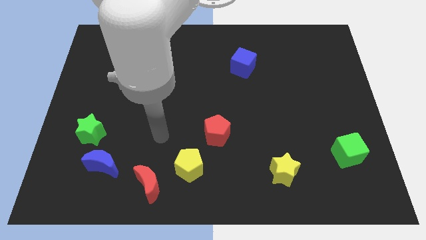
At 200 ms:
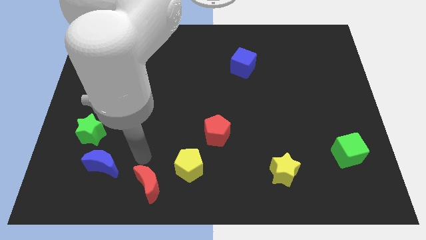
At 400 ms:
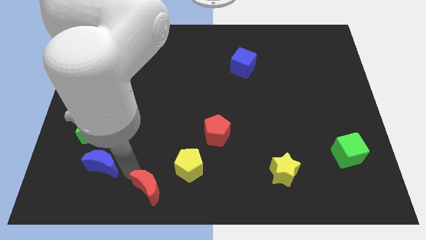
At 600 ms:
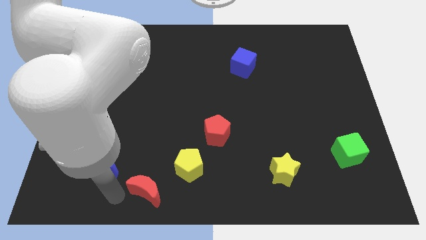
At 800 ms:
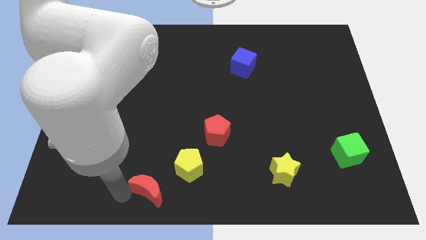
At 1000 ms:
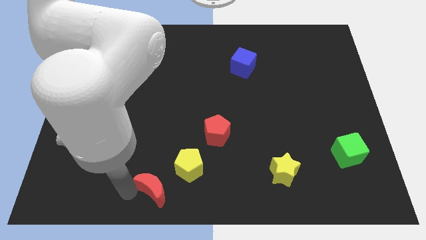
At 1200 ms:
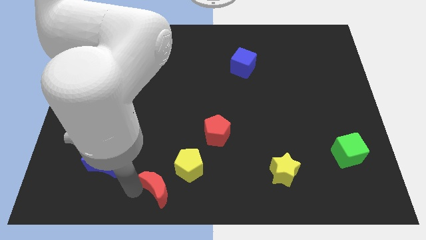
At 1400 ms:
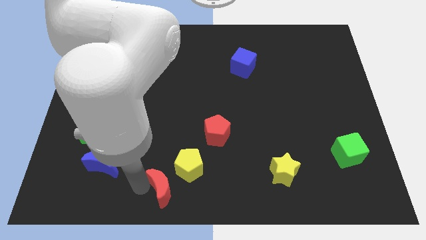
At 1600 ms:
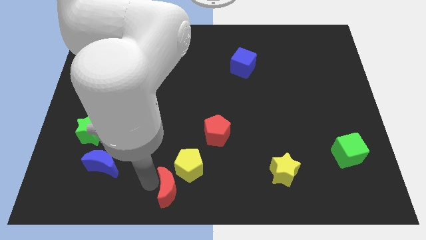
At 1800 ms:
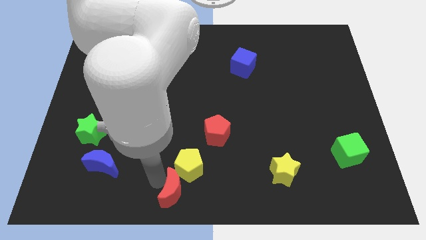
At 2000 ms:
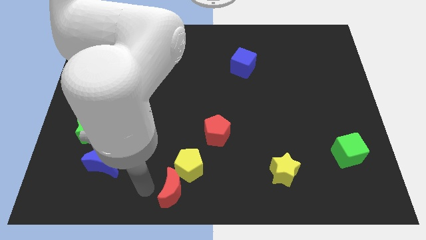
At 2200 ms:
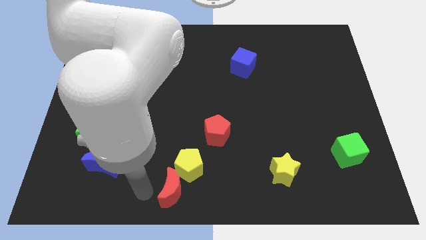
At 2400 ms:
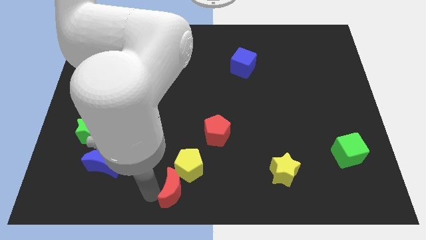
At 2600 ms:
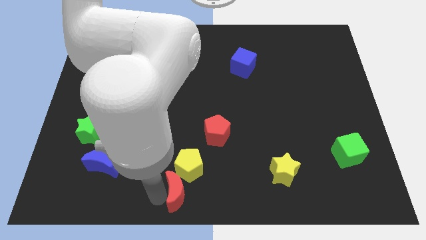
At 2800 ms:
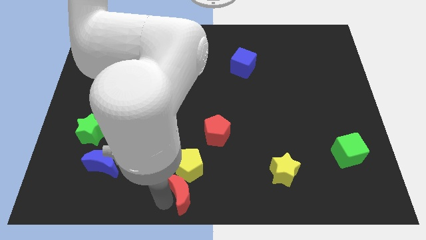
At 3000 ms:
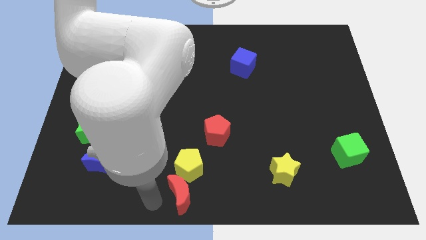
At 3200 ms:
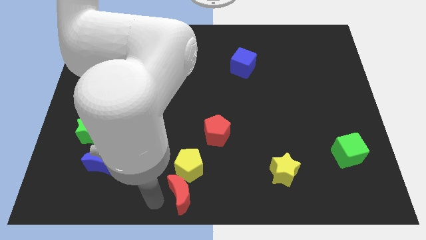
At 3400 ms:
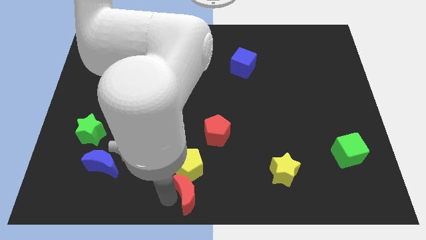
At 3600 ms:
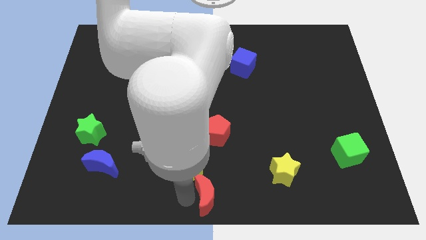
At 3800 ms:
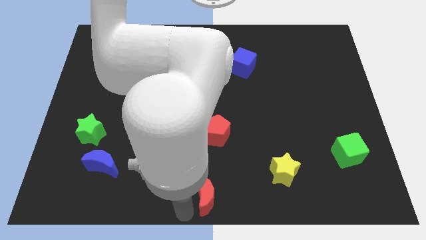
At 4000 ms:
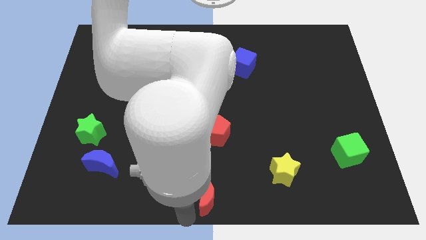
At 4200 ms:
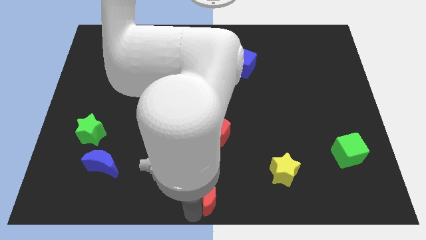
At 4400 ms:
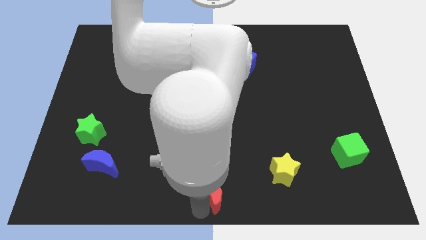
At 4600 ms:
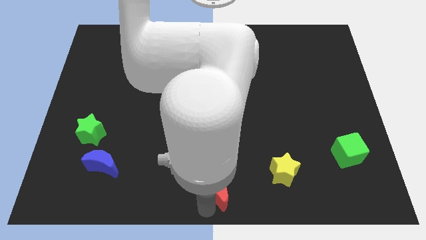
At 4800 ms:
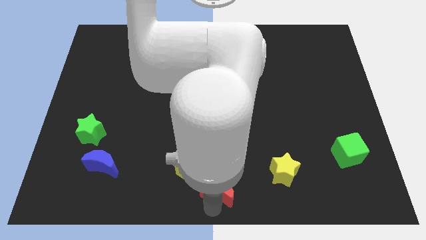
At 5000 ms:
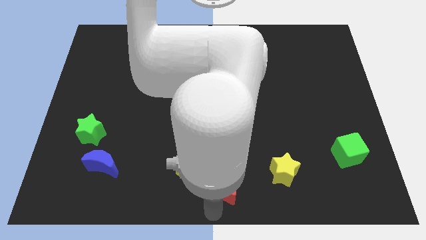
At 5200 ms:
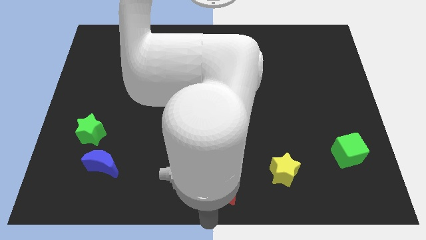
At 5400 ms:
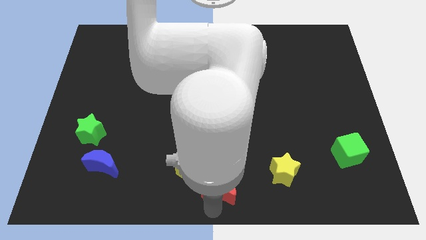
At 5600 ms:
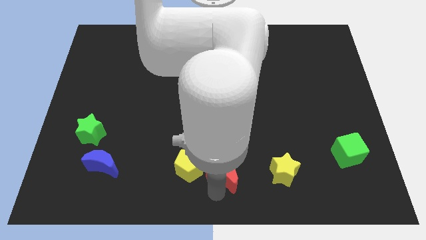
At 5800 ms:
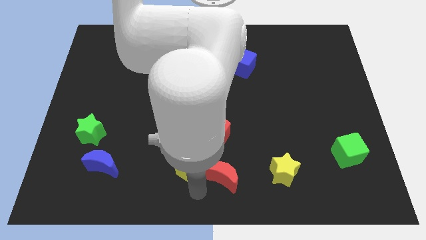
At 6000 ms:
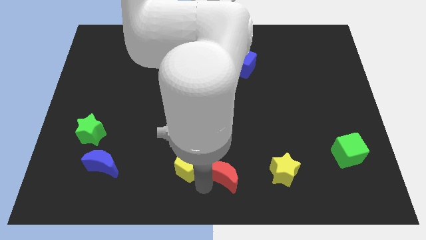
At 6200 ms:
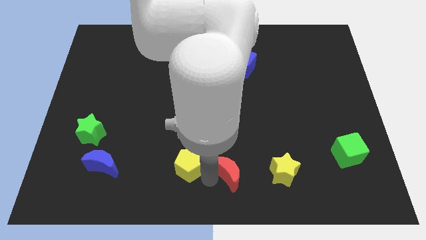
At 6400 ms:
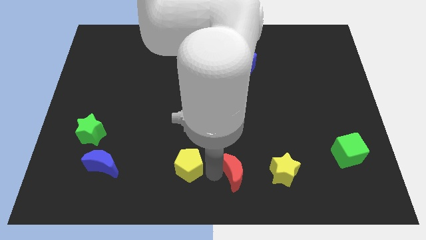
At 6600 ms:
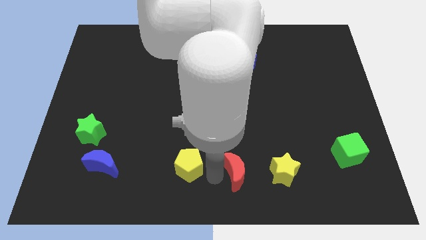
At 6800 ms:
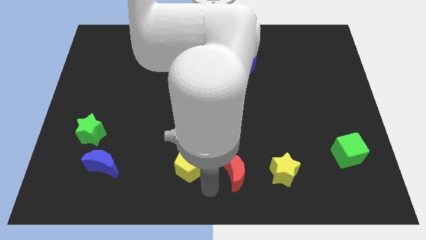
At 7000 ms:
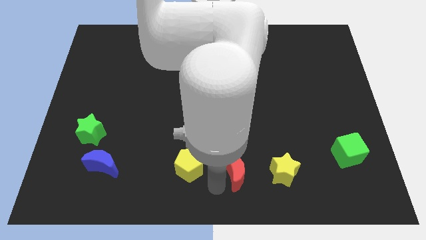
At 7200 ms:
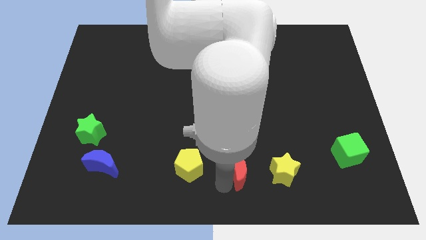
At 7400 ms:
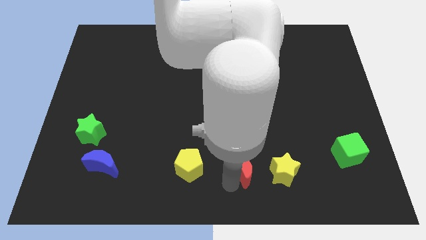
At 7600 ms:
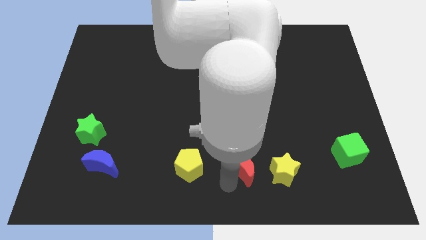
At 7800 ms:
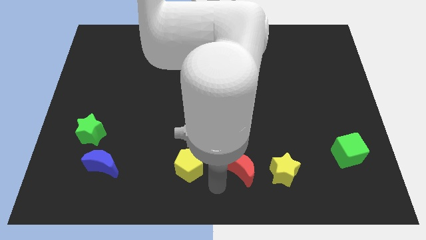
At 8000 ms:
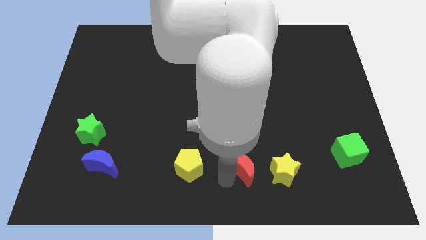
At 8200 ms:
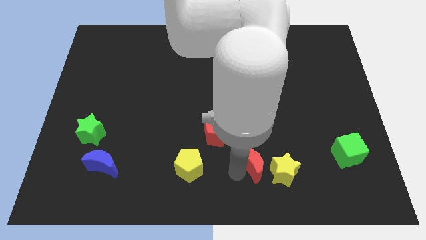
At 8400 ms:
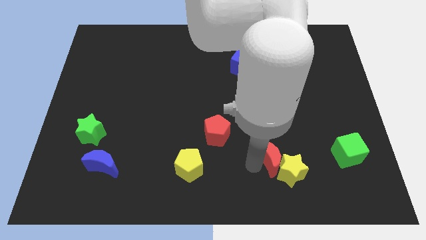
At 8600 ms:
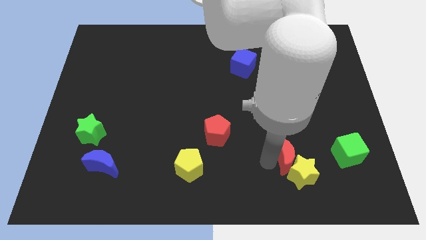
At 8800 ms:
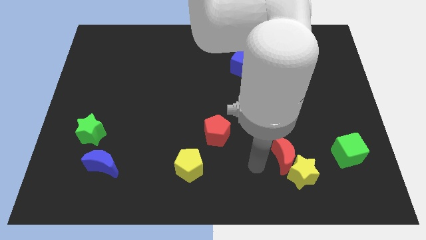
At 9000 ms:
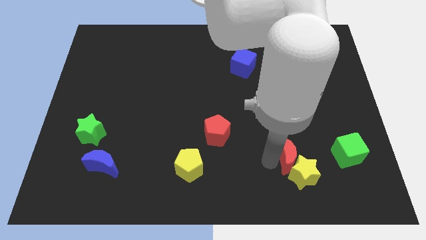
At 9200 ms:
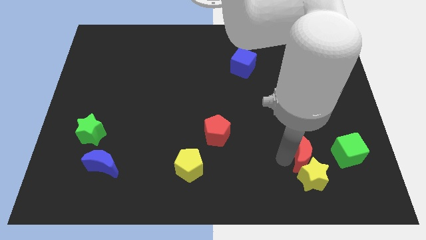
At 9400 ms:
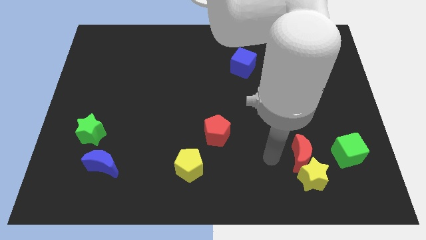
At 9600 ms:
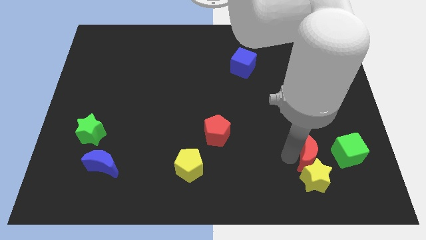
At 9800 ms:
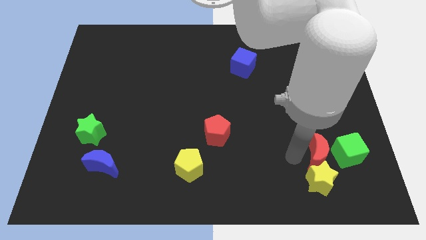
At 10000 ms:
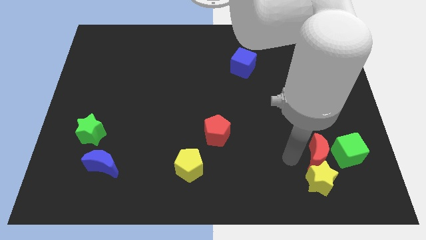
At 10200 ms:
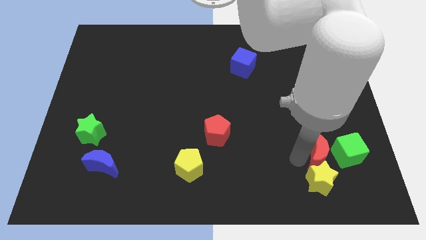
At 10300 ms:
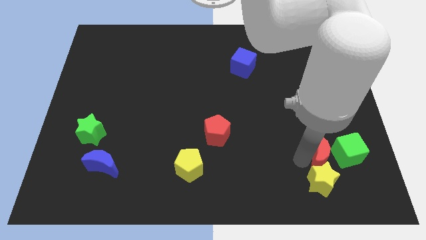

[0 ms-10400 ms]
put the red moon close to the green cube

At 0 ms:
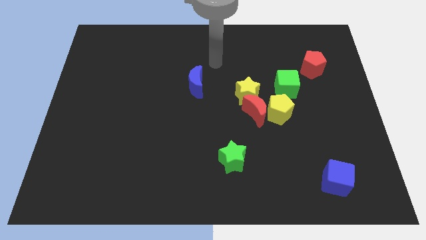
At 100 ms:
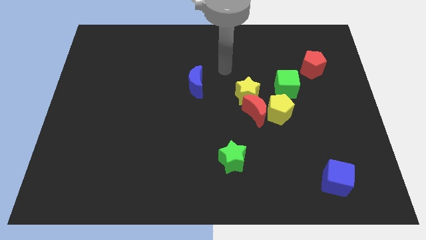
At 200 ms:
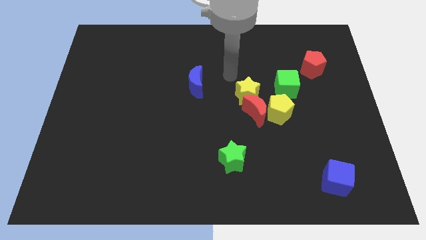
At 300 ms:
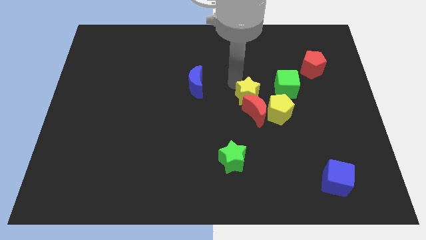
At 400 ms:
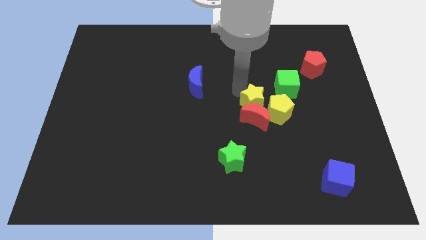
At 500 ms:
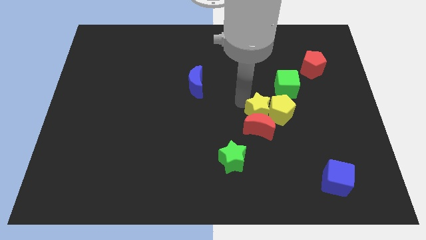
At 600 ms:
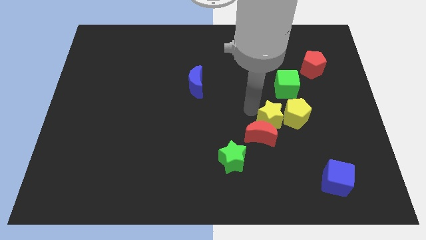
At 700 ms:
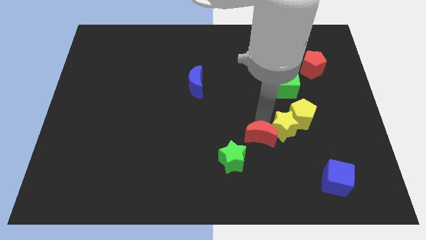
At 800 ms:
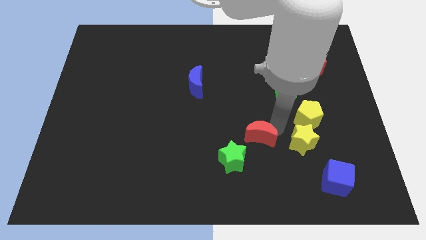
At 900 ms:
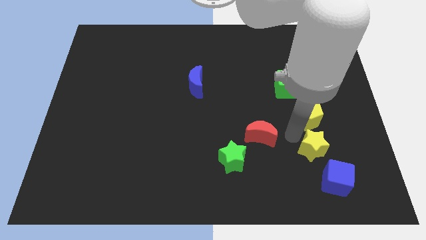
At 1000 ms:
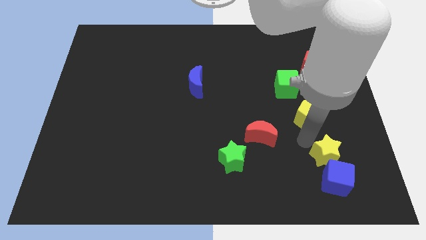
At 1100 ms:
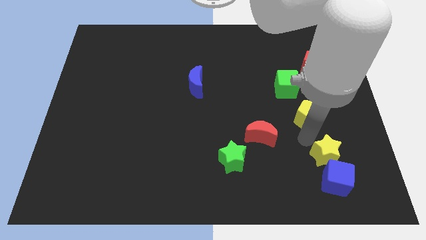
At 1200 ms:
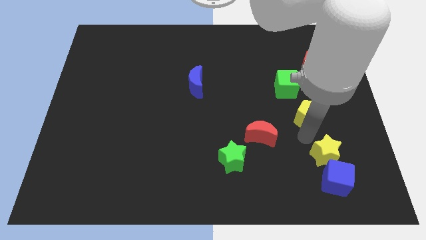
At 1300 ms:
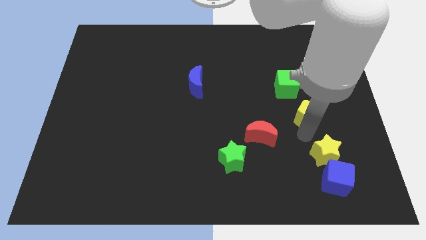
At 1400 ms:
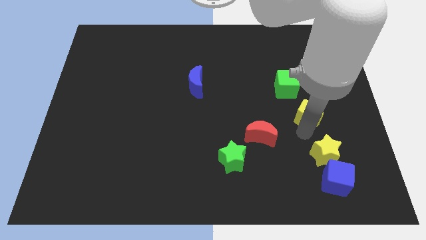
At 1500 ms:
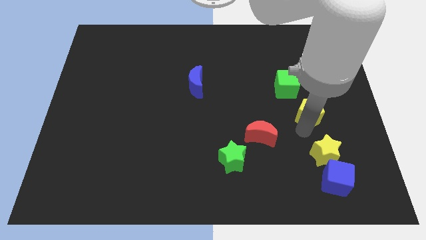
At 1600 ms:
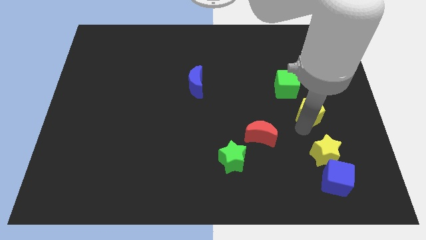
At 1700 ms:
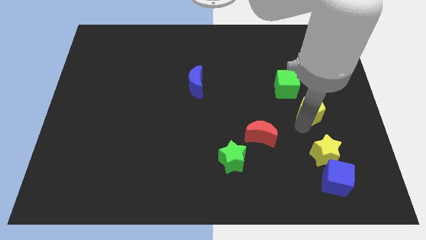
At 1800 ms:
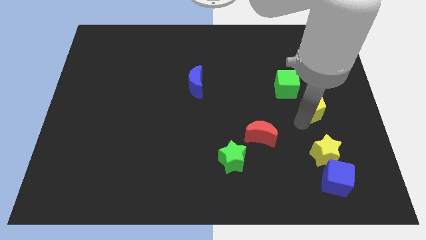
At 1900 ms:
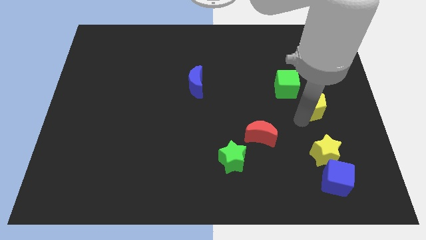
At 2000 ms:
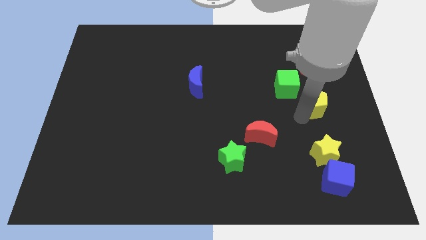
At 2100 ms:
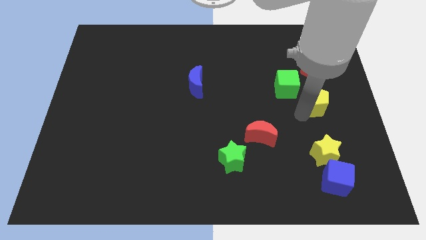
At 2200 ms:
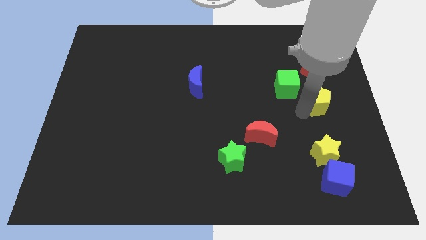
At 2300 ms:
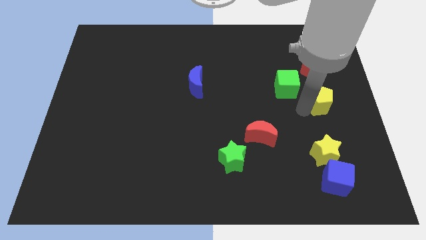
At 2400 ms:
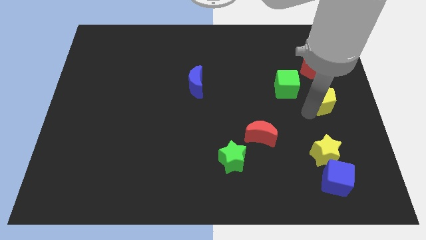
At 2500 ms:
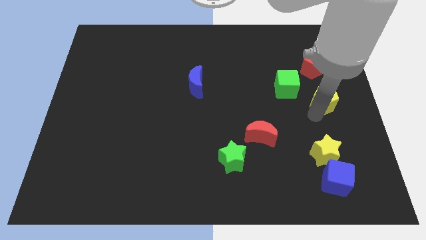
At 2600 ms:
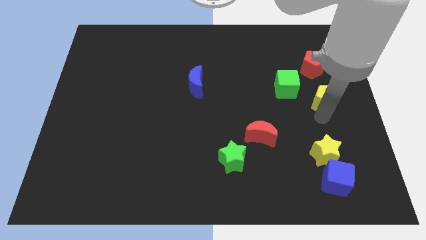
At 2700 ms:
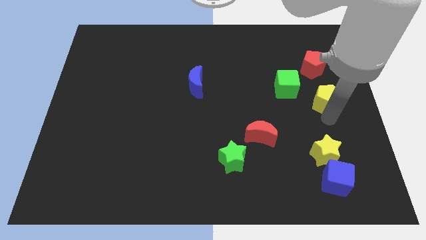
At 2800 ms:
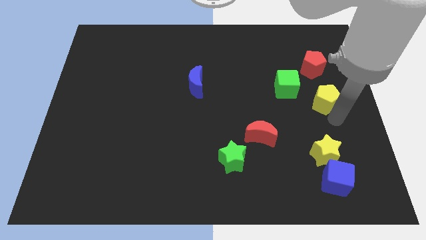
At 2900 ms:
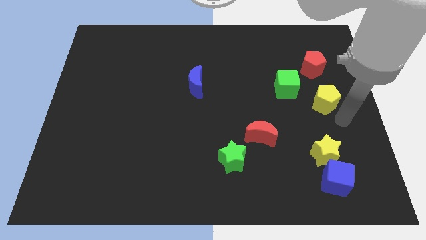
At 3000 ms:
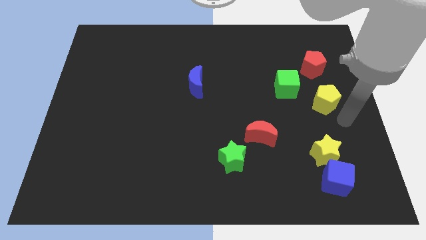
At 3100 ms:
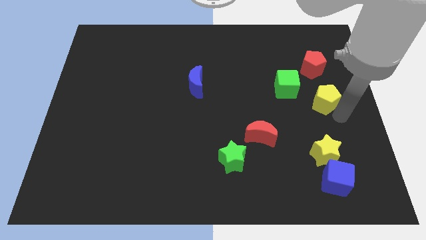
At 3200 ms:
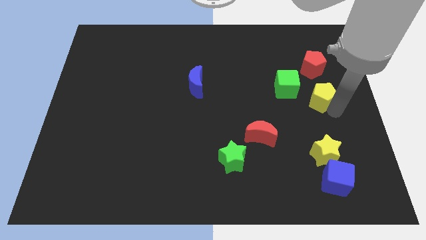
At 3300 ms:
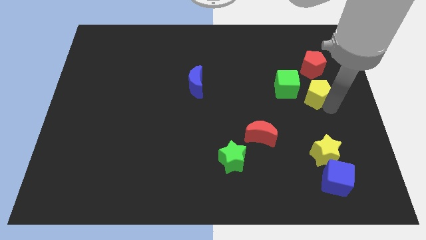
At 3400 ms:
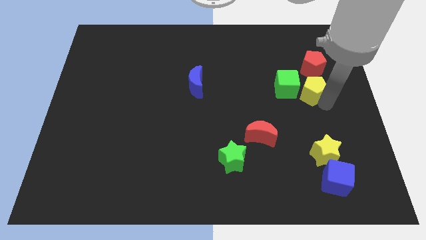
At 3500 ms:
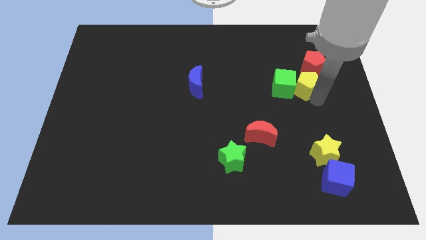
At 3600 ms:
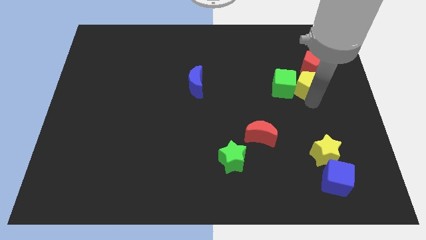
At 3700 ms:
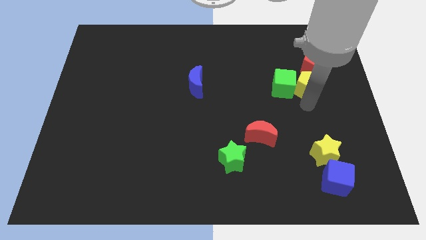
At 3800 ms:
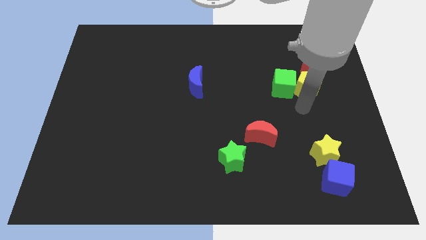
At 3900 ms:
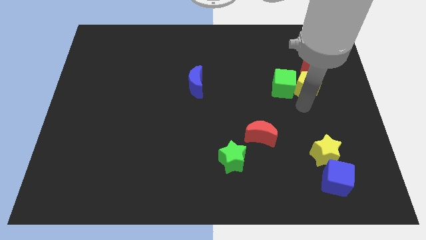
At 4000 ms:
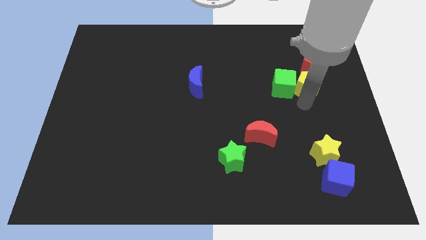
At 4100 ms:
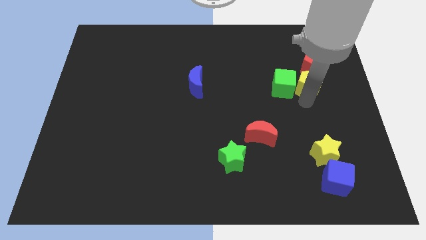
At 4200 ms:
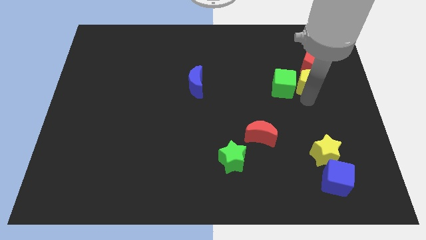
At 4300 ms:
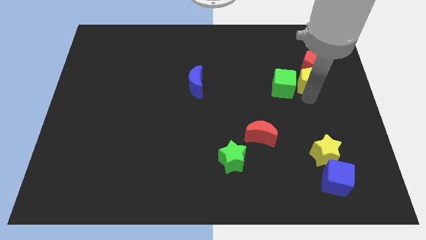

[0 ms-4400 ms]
move the yellow pentagon close to the red pentagon
